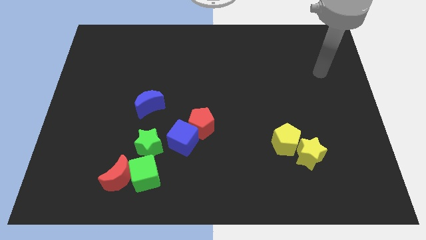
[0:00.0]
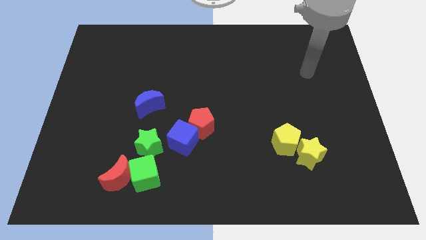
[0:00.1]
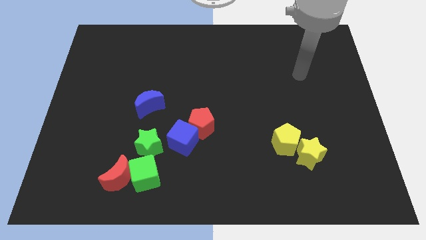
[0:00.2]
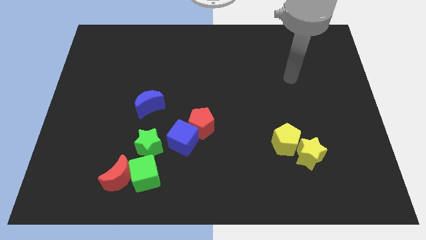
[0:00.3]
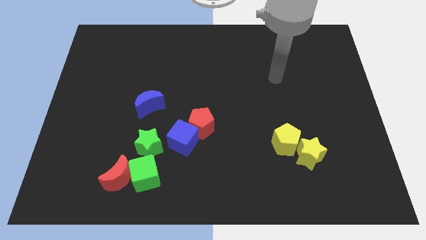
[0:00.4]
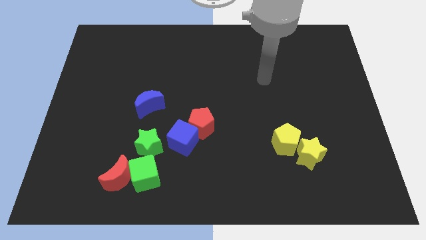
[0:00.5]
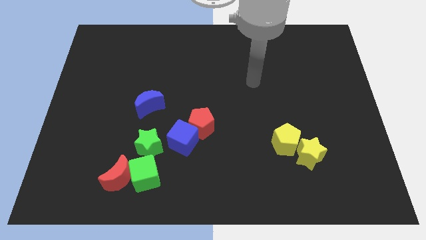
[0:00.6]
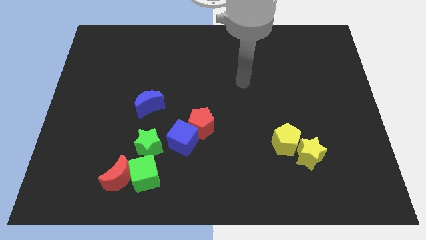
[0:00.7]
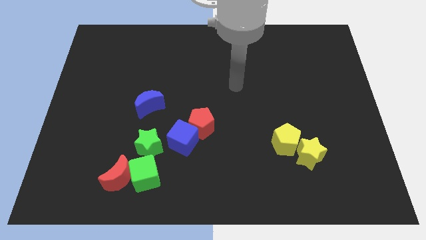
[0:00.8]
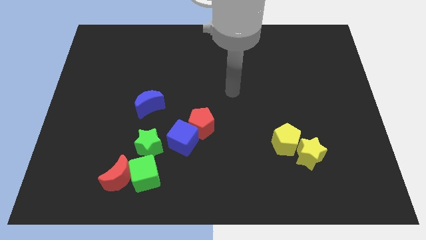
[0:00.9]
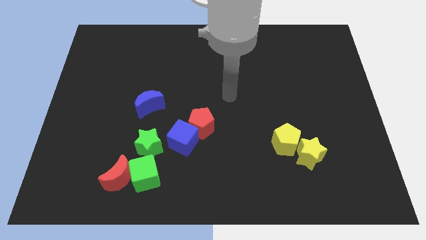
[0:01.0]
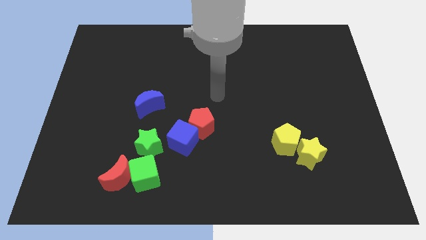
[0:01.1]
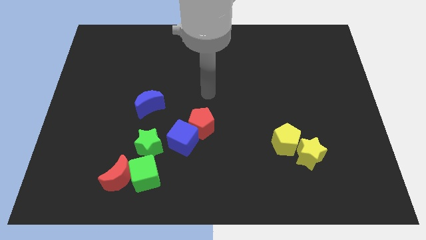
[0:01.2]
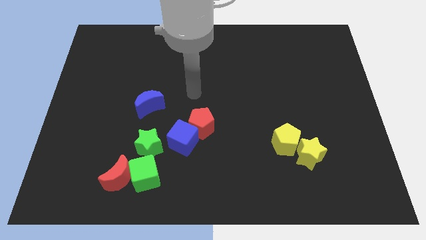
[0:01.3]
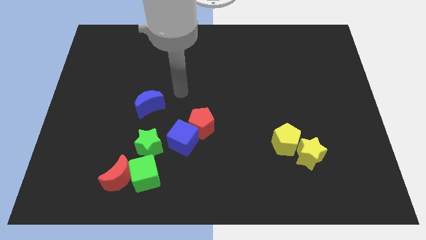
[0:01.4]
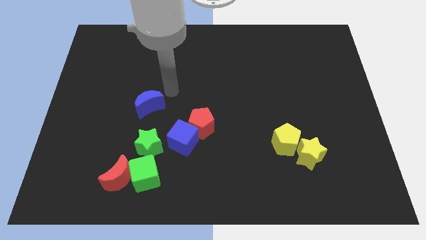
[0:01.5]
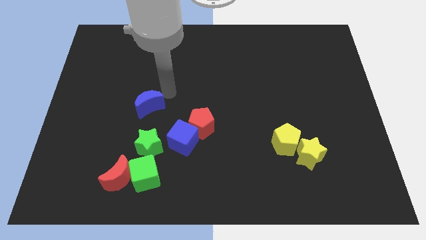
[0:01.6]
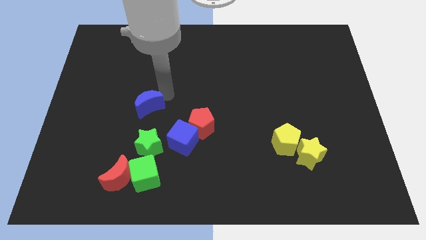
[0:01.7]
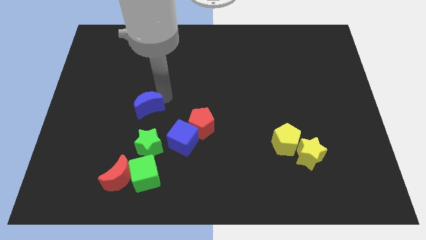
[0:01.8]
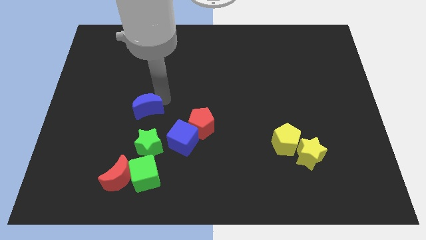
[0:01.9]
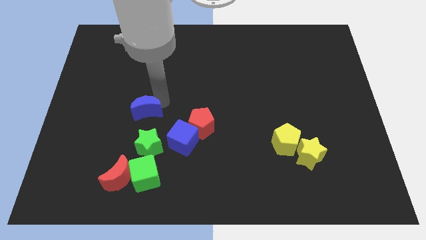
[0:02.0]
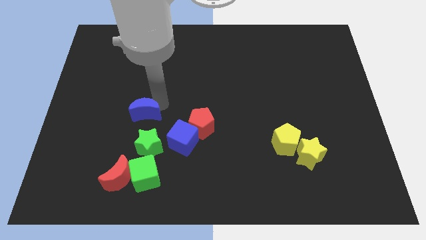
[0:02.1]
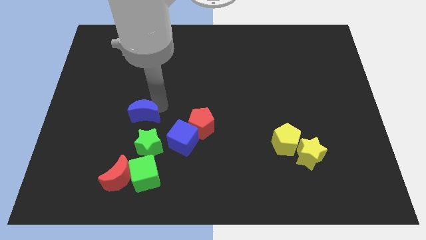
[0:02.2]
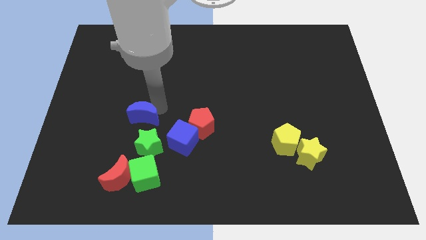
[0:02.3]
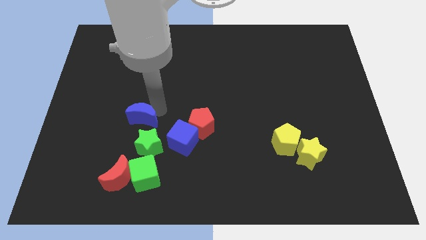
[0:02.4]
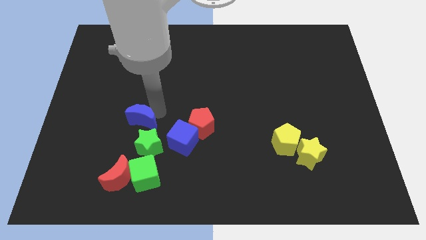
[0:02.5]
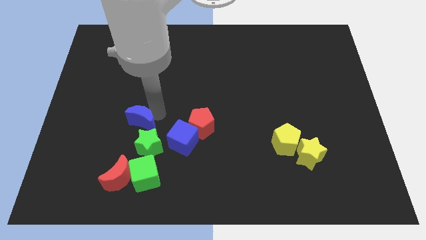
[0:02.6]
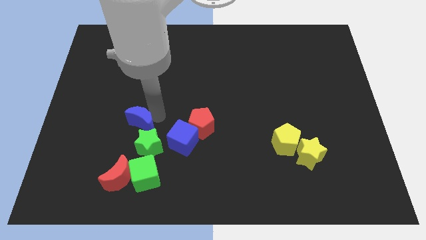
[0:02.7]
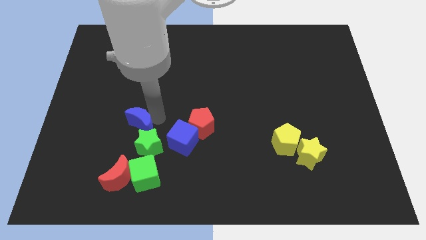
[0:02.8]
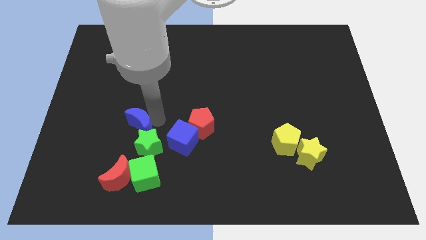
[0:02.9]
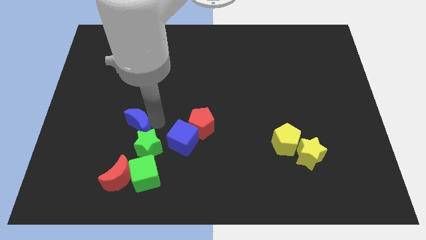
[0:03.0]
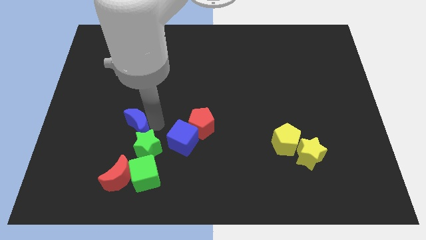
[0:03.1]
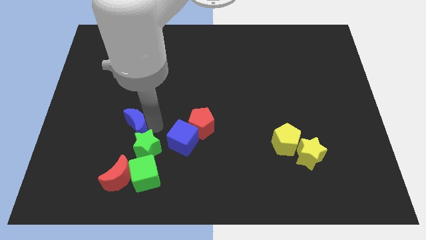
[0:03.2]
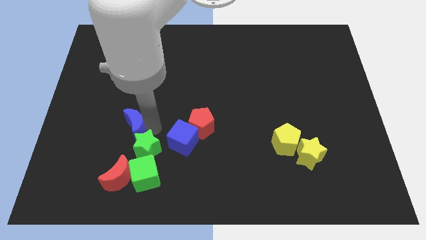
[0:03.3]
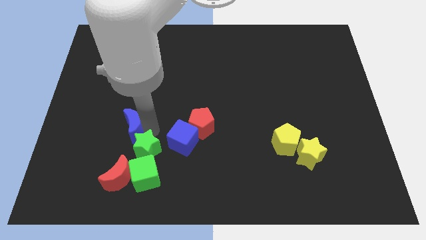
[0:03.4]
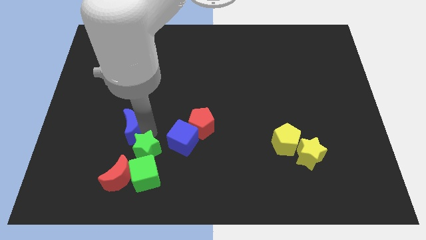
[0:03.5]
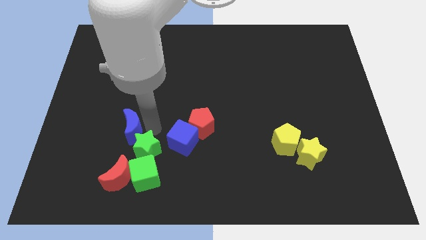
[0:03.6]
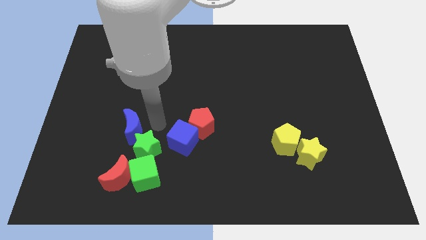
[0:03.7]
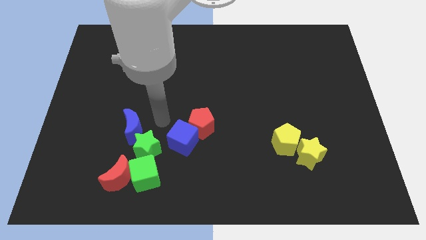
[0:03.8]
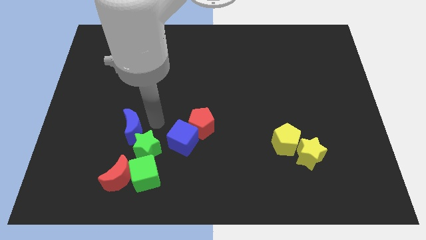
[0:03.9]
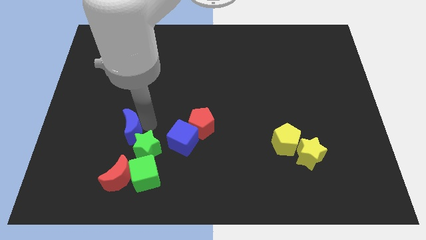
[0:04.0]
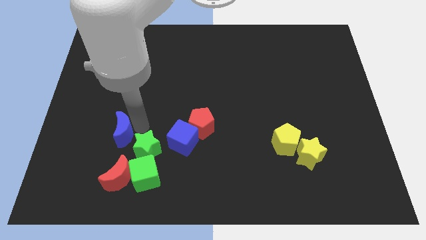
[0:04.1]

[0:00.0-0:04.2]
move the blue moon down and to the left slightly

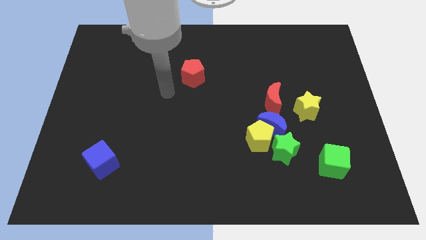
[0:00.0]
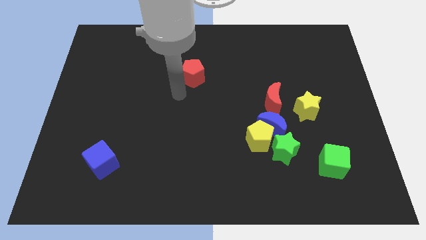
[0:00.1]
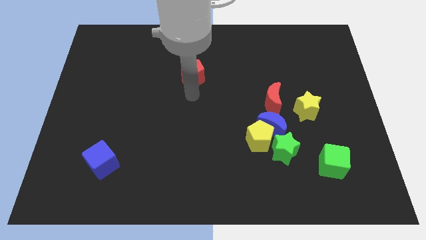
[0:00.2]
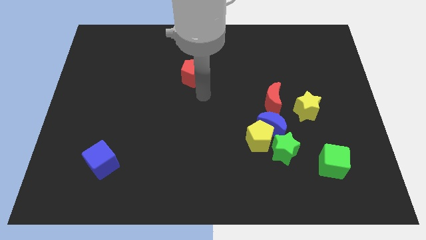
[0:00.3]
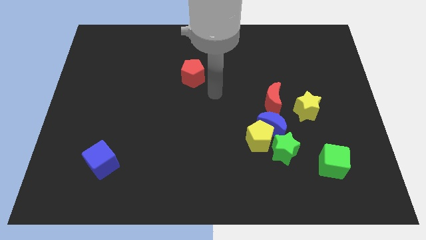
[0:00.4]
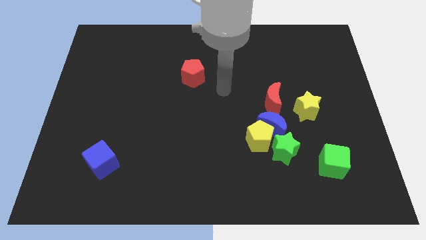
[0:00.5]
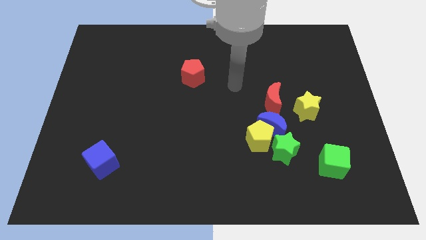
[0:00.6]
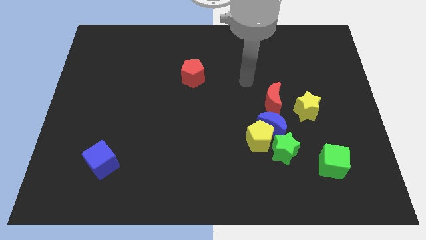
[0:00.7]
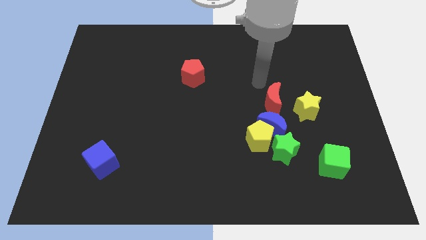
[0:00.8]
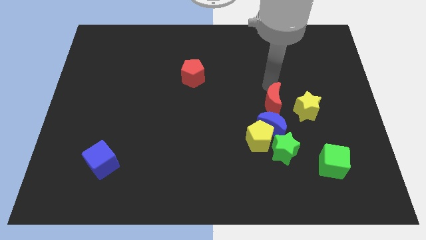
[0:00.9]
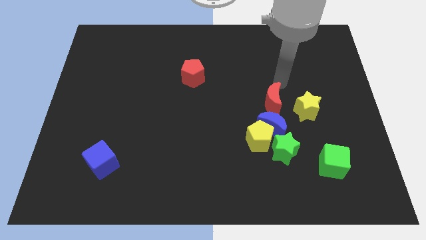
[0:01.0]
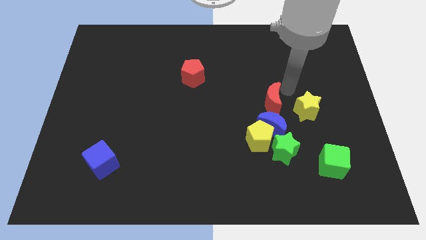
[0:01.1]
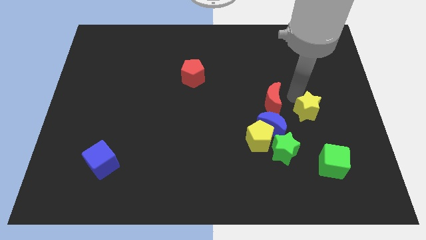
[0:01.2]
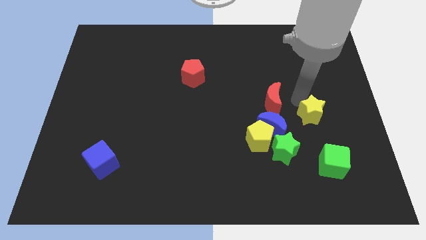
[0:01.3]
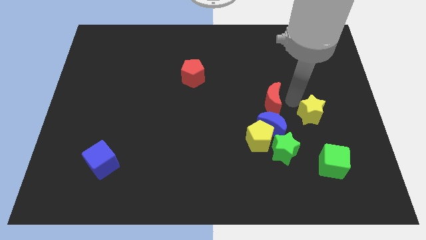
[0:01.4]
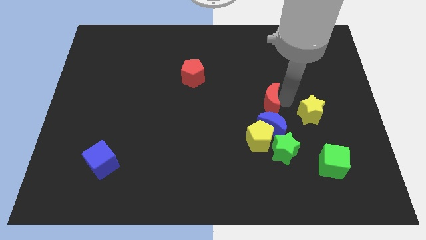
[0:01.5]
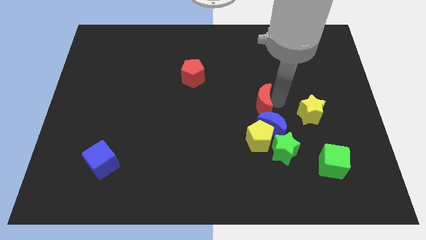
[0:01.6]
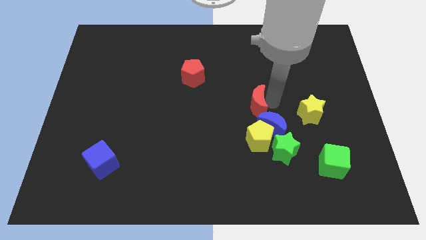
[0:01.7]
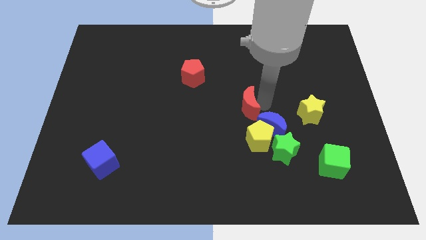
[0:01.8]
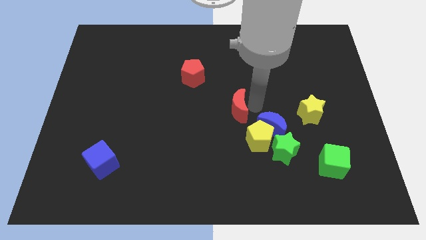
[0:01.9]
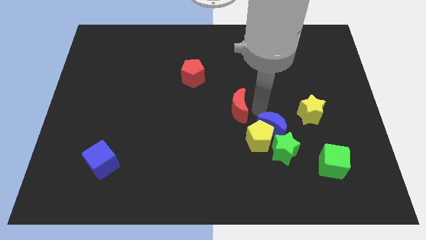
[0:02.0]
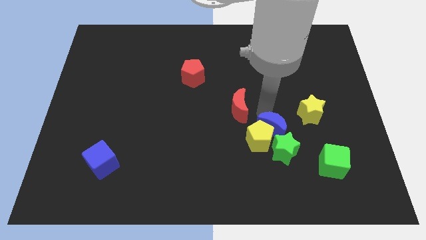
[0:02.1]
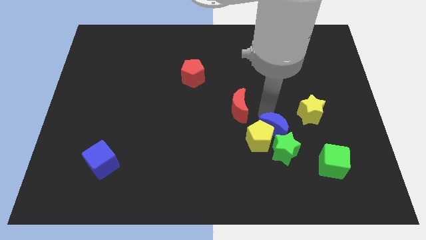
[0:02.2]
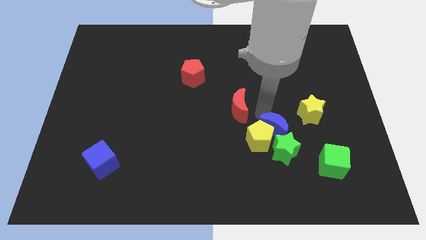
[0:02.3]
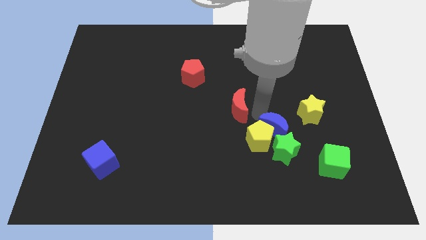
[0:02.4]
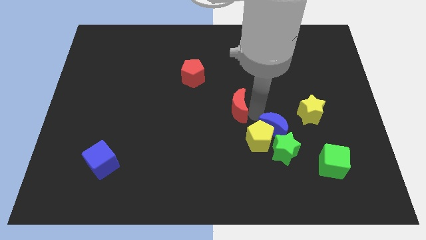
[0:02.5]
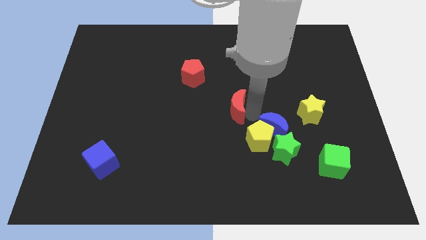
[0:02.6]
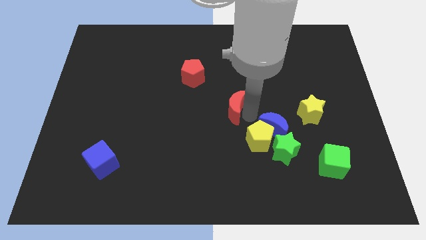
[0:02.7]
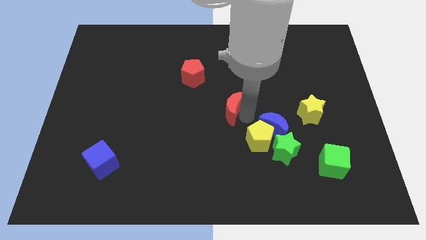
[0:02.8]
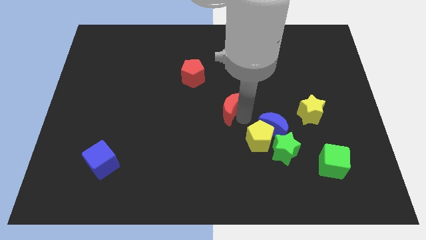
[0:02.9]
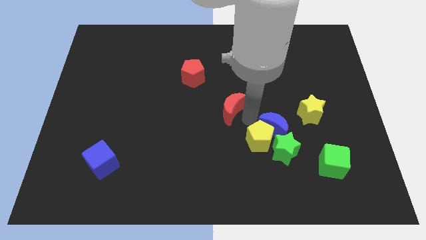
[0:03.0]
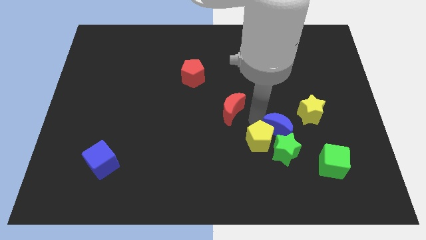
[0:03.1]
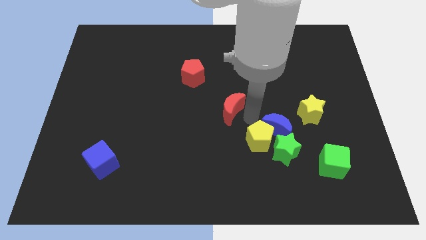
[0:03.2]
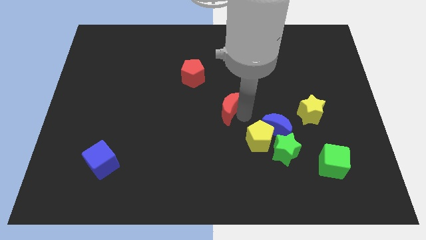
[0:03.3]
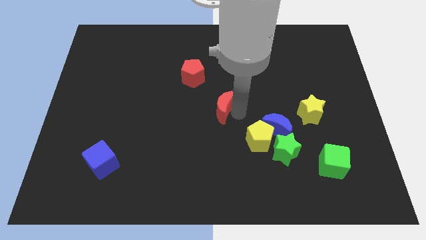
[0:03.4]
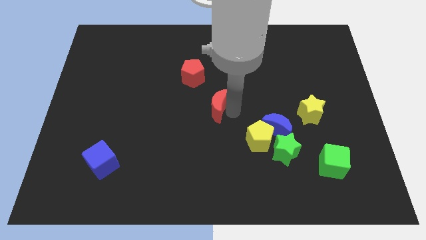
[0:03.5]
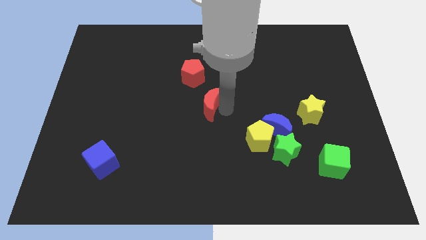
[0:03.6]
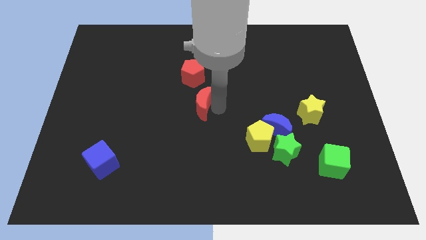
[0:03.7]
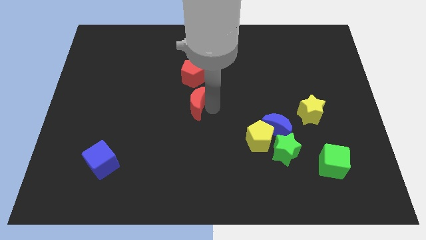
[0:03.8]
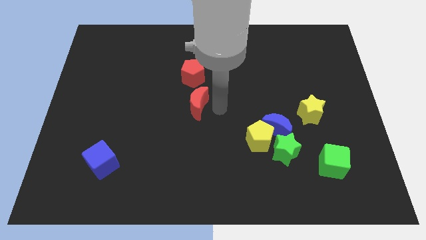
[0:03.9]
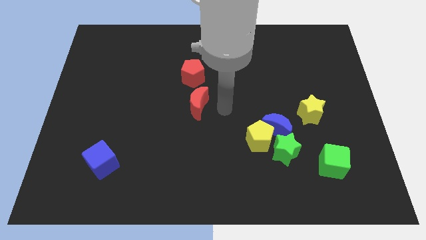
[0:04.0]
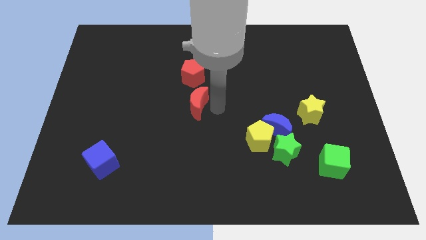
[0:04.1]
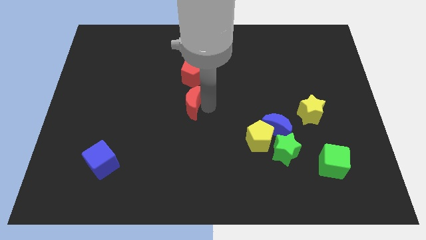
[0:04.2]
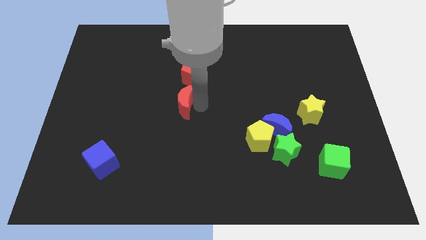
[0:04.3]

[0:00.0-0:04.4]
move the red moon left

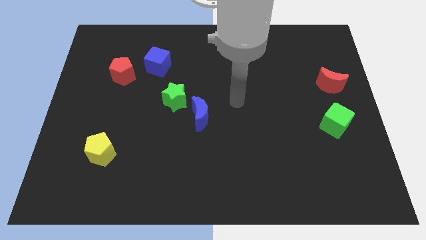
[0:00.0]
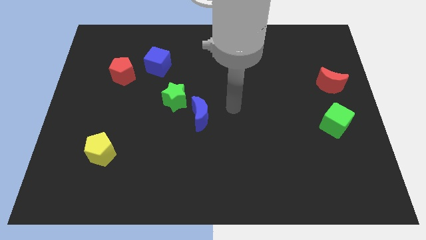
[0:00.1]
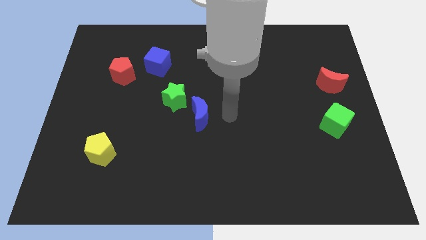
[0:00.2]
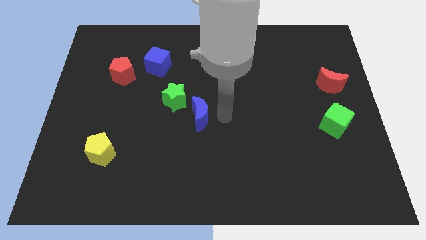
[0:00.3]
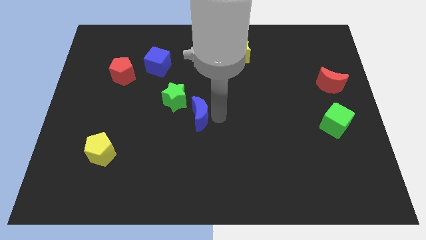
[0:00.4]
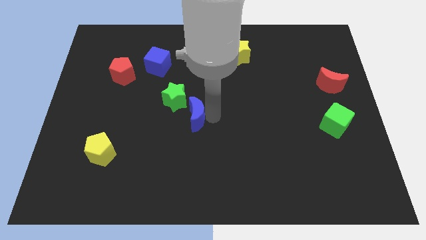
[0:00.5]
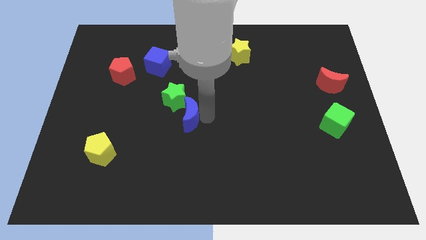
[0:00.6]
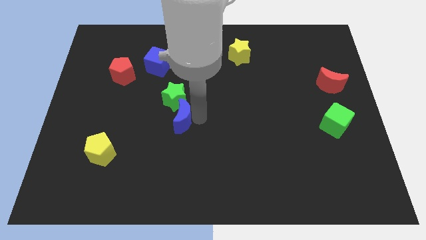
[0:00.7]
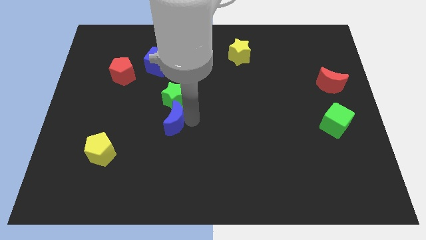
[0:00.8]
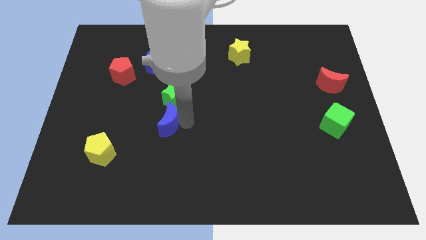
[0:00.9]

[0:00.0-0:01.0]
slightly move the blue moon left
